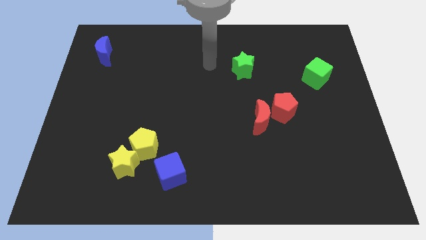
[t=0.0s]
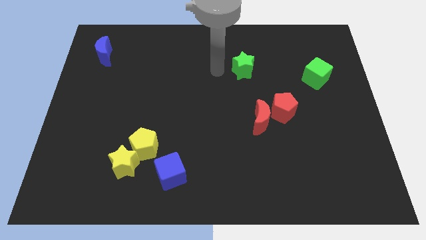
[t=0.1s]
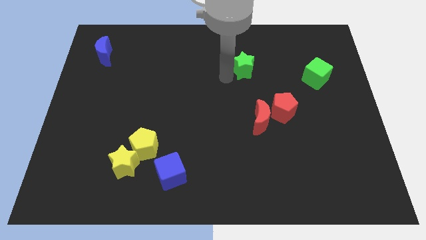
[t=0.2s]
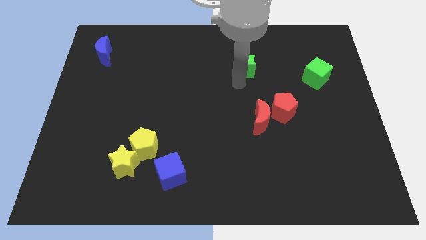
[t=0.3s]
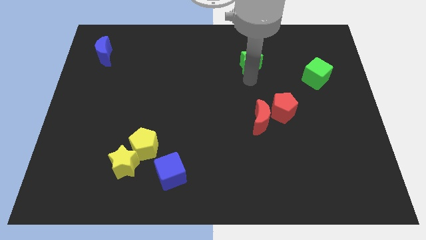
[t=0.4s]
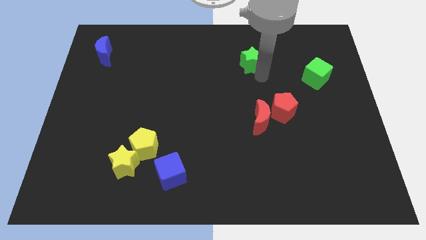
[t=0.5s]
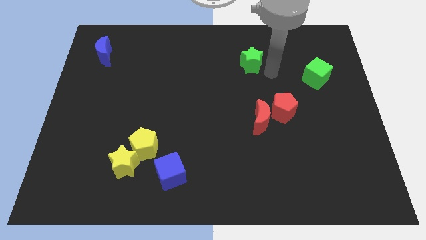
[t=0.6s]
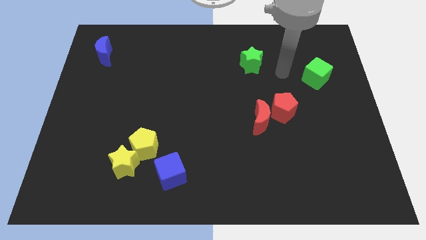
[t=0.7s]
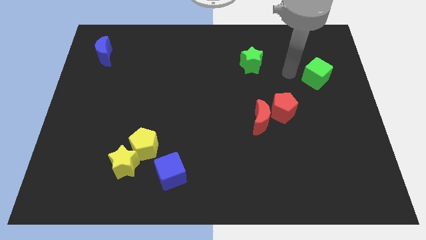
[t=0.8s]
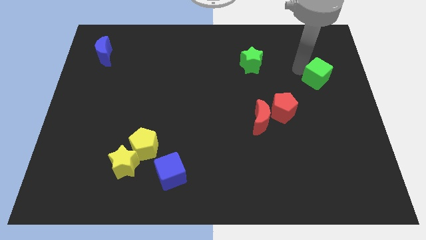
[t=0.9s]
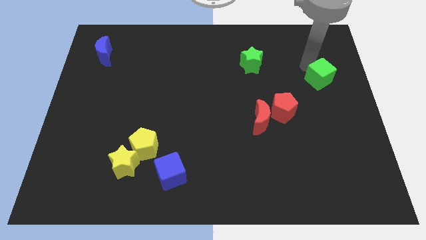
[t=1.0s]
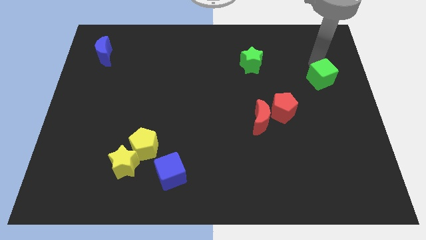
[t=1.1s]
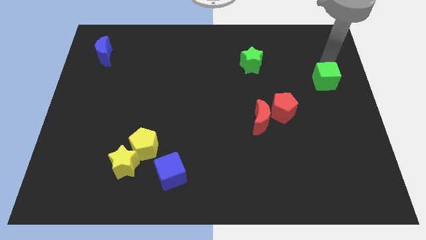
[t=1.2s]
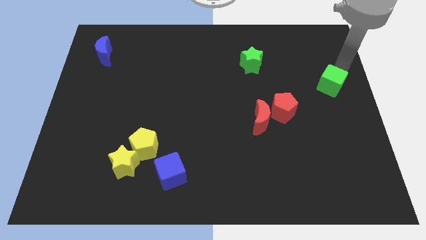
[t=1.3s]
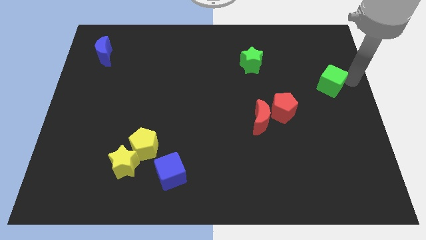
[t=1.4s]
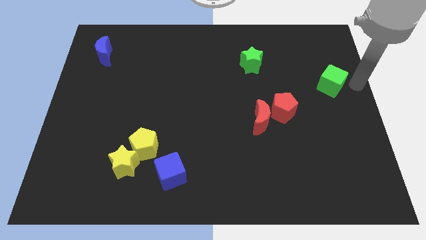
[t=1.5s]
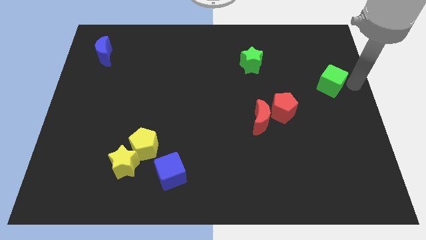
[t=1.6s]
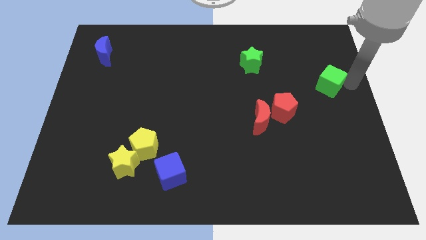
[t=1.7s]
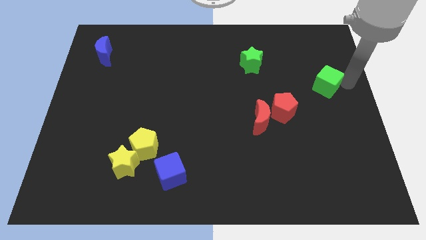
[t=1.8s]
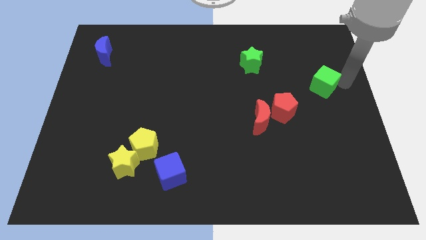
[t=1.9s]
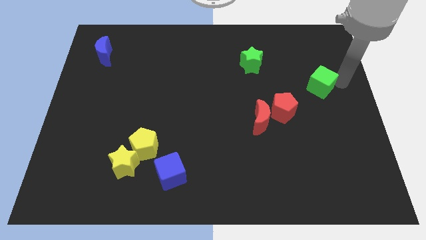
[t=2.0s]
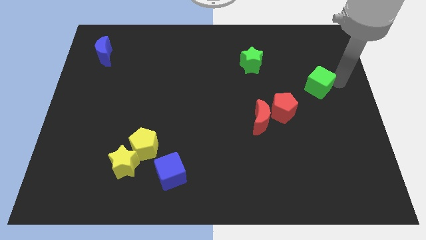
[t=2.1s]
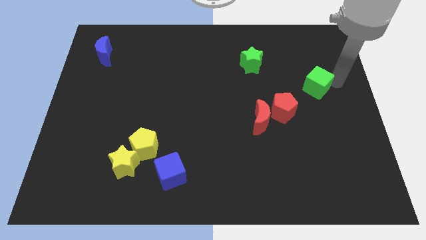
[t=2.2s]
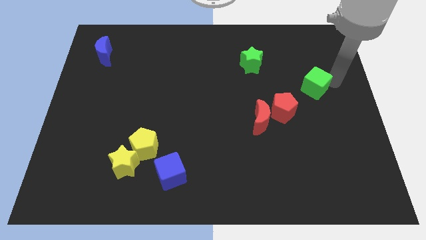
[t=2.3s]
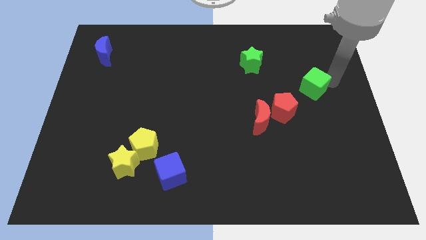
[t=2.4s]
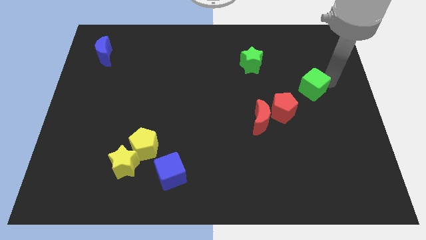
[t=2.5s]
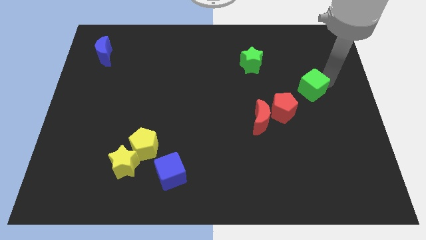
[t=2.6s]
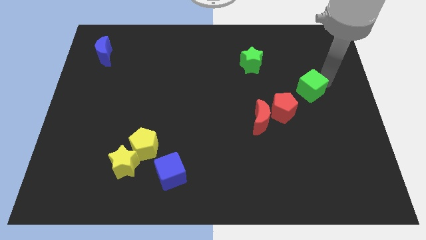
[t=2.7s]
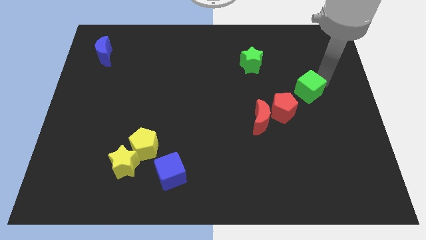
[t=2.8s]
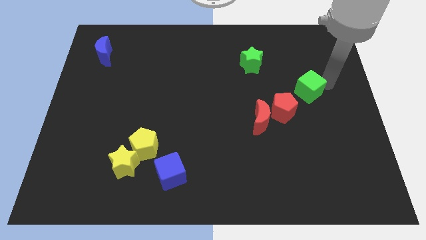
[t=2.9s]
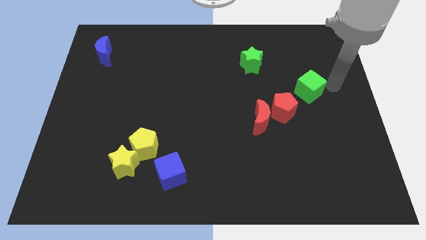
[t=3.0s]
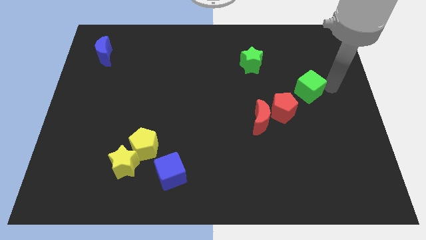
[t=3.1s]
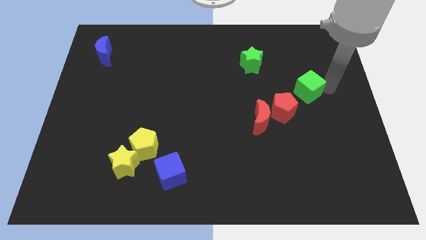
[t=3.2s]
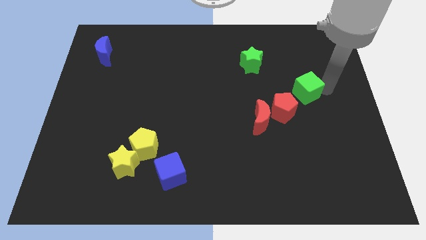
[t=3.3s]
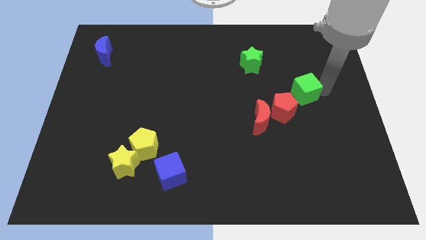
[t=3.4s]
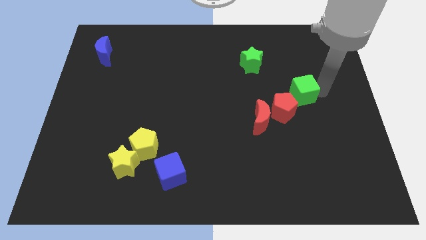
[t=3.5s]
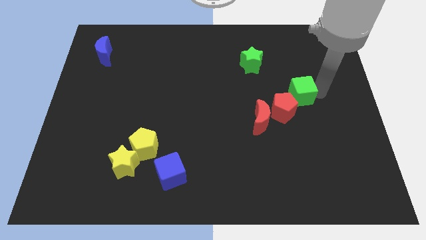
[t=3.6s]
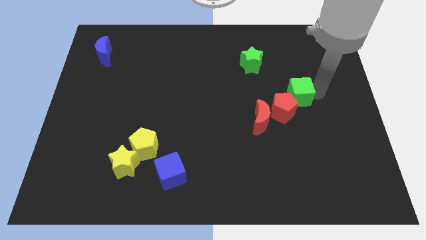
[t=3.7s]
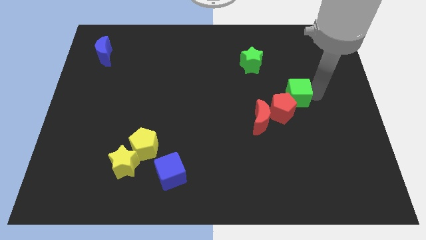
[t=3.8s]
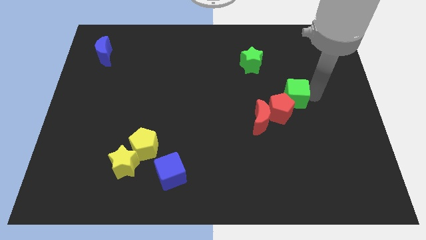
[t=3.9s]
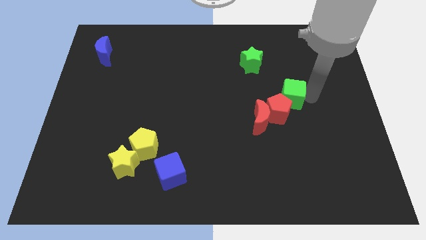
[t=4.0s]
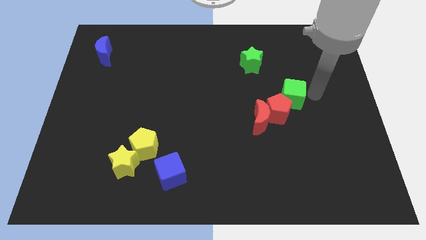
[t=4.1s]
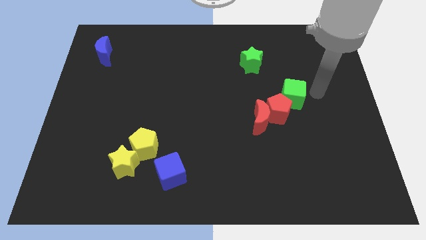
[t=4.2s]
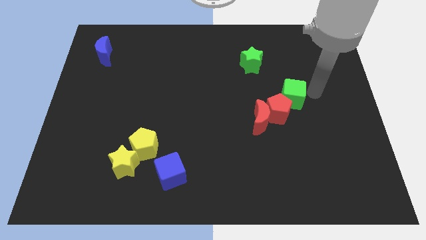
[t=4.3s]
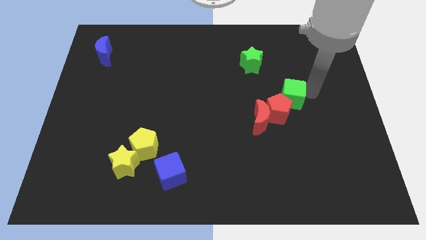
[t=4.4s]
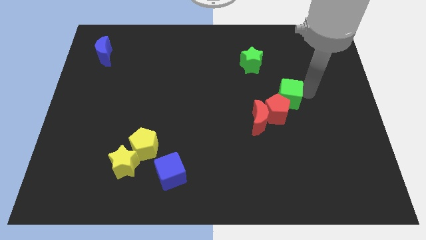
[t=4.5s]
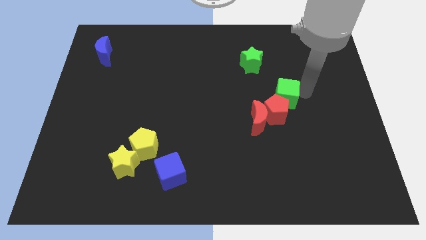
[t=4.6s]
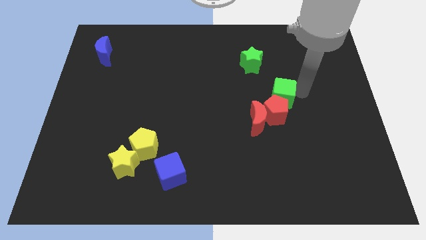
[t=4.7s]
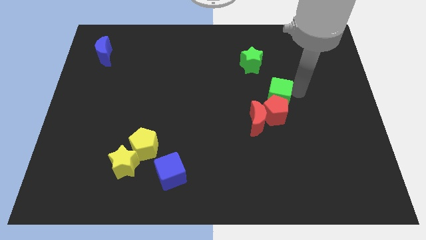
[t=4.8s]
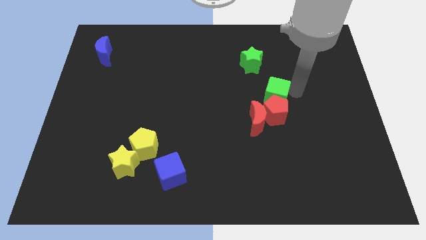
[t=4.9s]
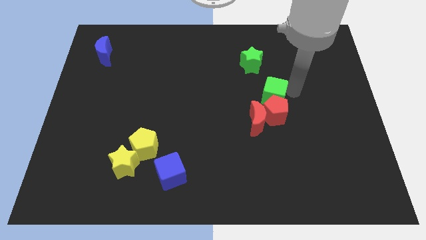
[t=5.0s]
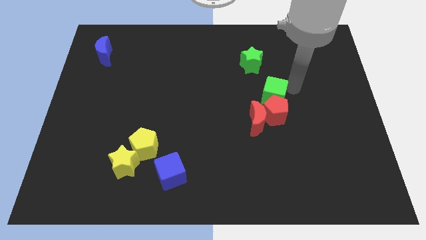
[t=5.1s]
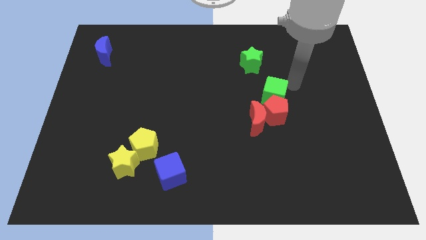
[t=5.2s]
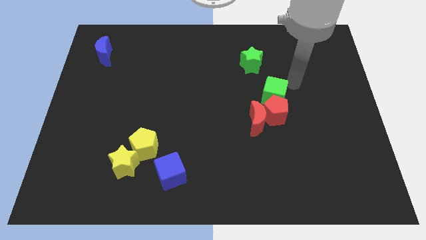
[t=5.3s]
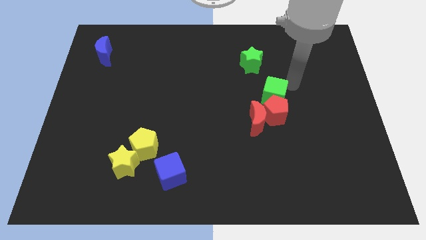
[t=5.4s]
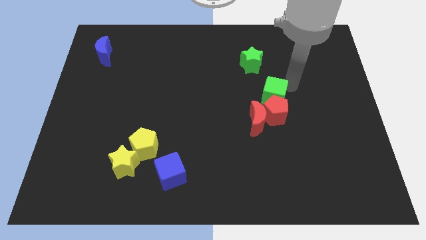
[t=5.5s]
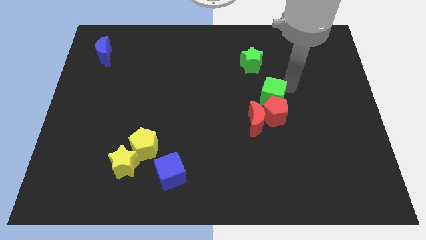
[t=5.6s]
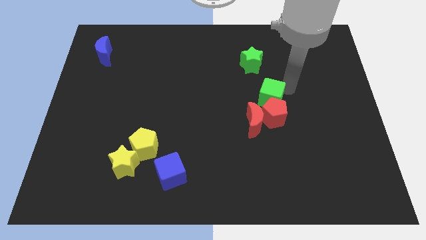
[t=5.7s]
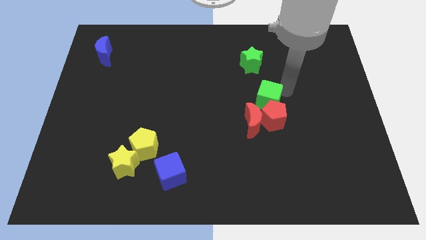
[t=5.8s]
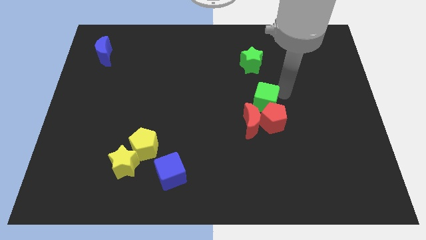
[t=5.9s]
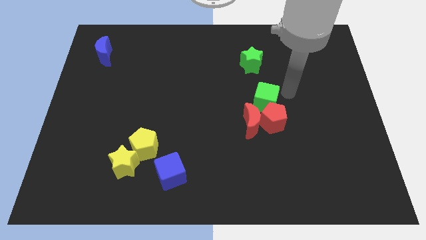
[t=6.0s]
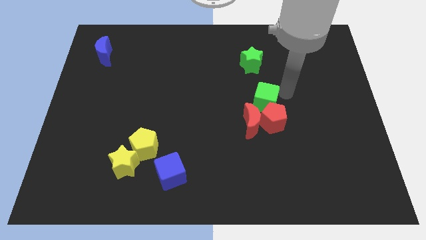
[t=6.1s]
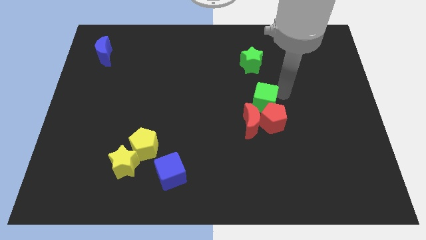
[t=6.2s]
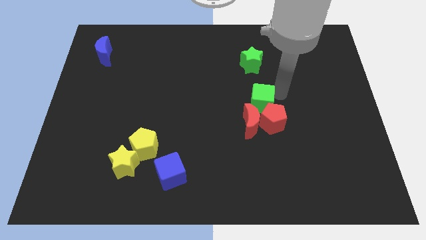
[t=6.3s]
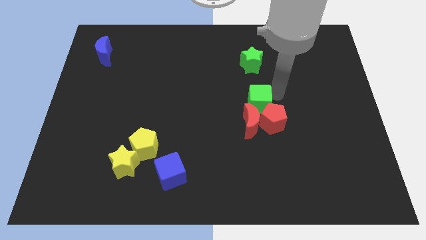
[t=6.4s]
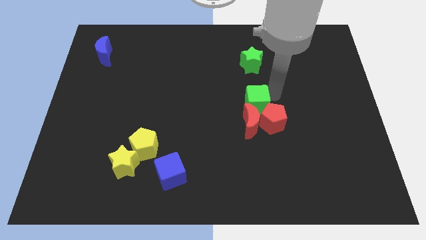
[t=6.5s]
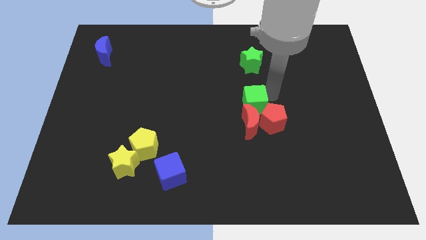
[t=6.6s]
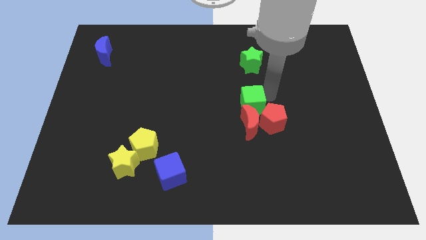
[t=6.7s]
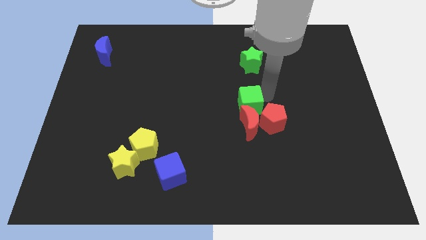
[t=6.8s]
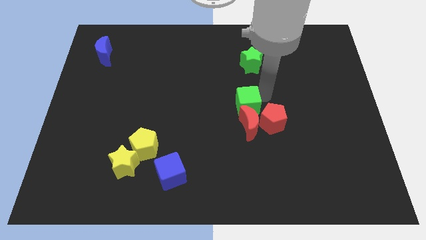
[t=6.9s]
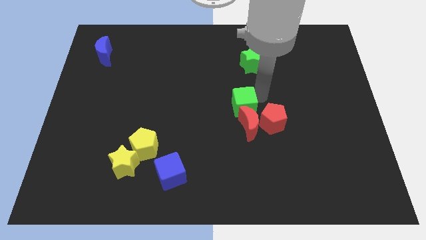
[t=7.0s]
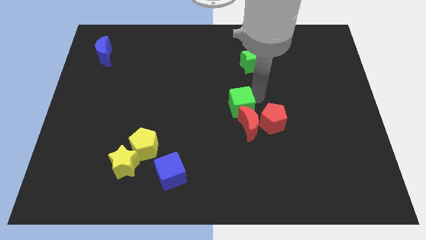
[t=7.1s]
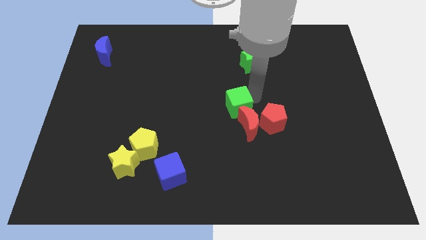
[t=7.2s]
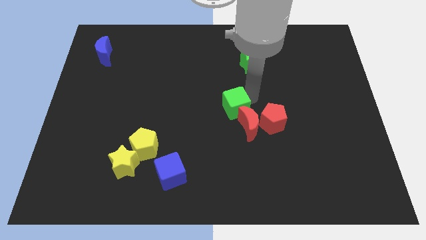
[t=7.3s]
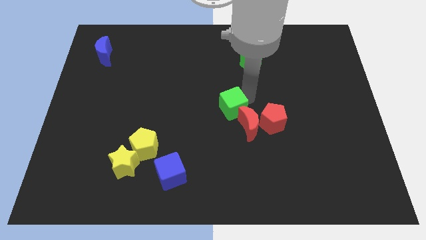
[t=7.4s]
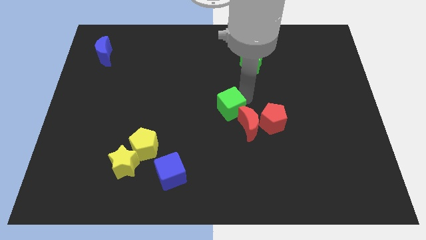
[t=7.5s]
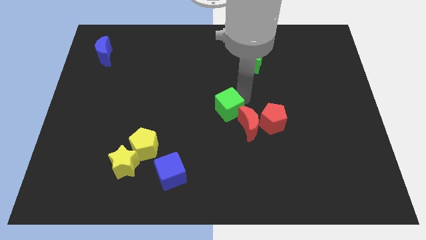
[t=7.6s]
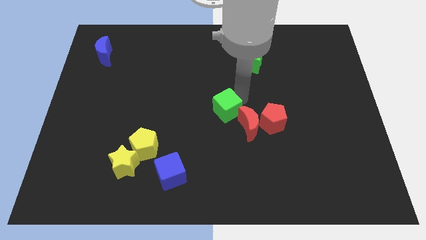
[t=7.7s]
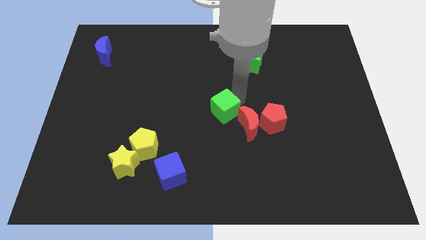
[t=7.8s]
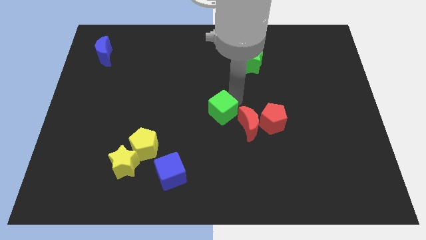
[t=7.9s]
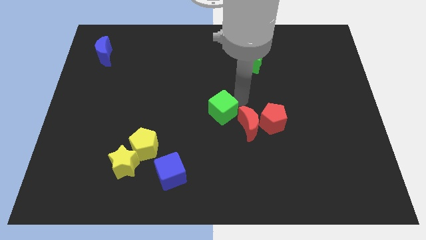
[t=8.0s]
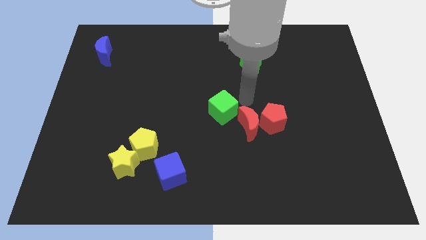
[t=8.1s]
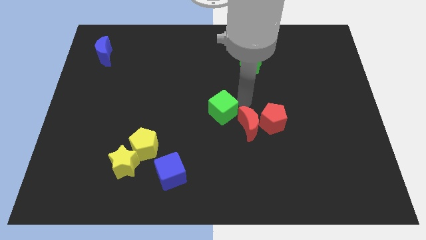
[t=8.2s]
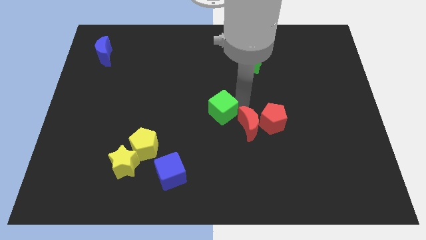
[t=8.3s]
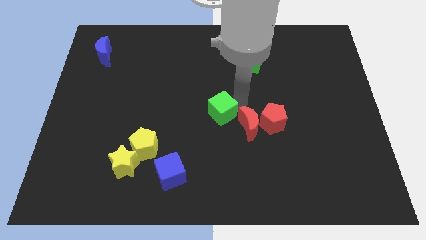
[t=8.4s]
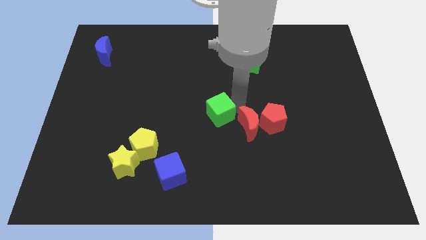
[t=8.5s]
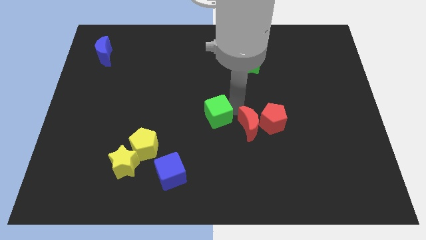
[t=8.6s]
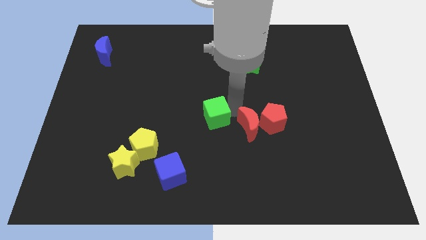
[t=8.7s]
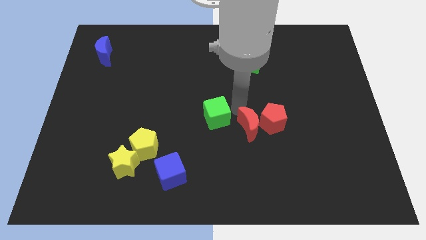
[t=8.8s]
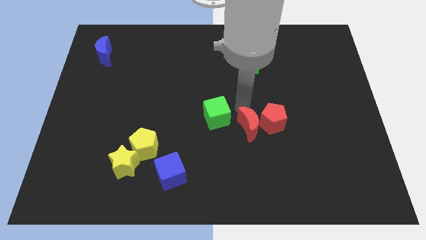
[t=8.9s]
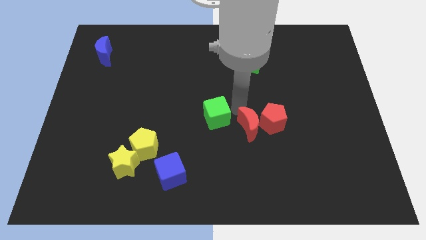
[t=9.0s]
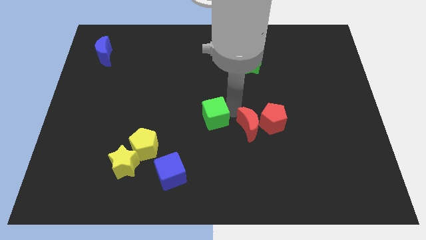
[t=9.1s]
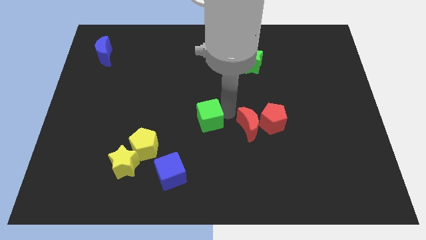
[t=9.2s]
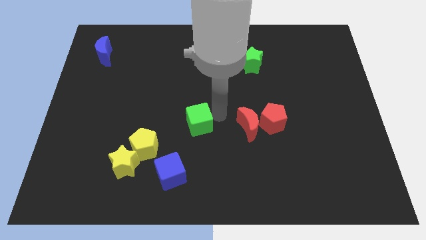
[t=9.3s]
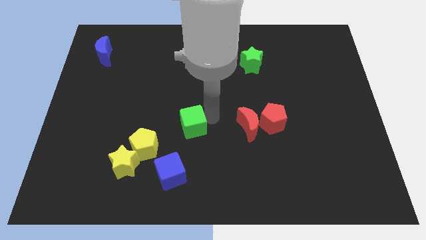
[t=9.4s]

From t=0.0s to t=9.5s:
push the green cube to the top of the blue cube
